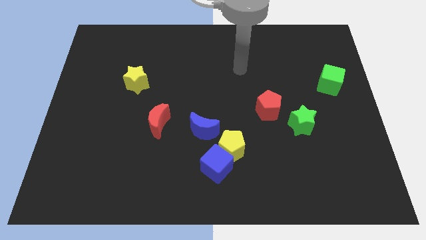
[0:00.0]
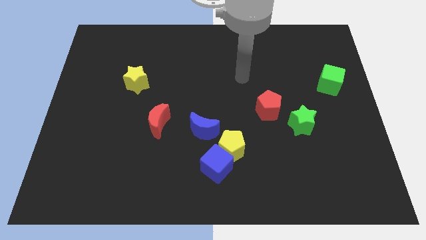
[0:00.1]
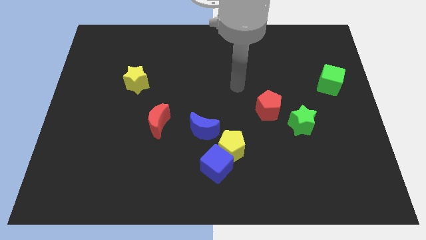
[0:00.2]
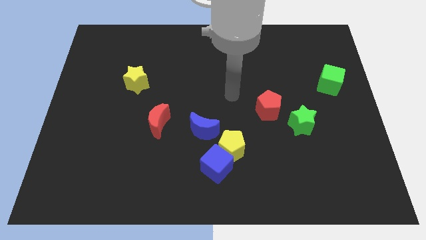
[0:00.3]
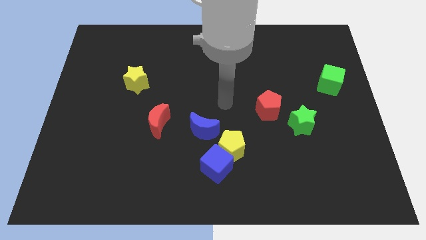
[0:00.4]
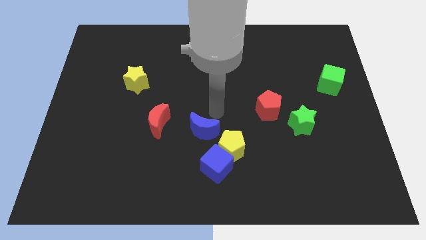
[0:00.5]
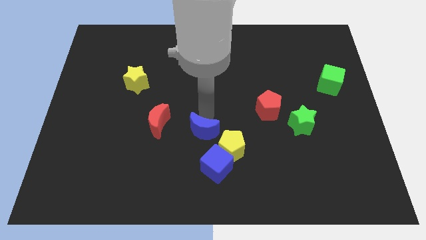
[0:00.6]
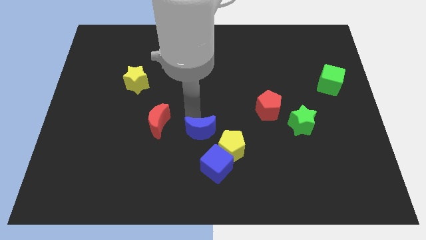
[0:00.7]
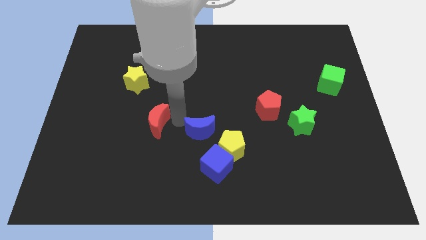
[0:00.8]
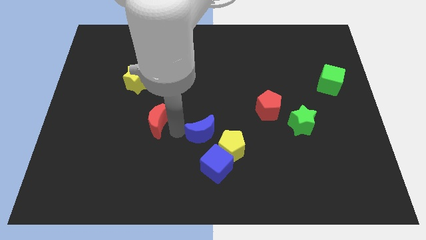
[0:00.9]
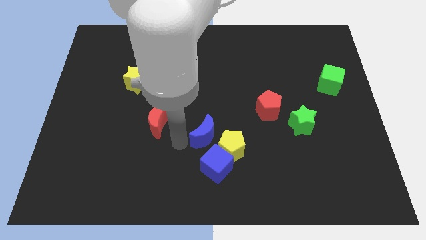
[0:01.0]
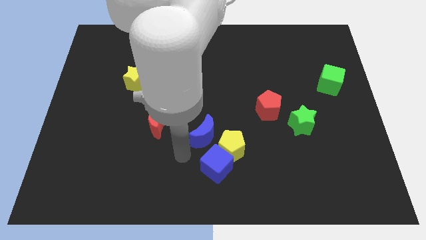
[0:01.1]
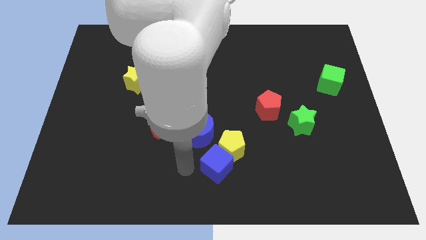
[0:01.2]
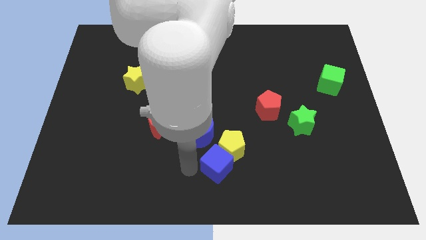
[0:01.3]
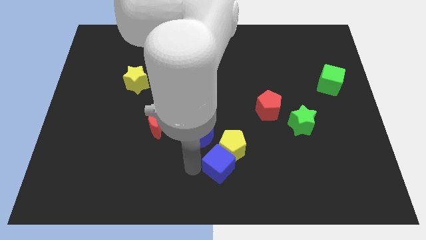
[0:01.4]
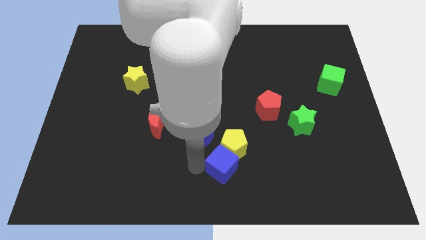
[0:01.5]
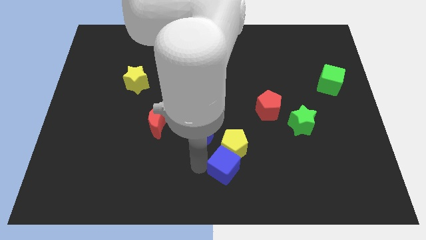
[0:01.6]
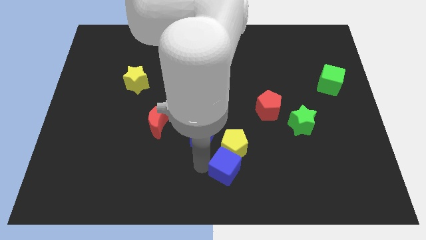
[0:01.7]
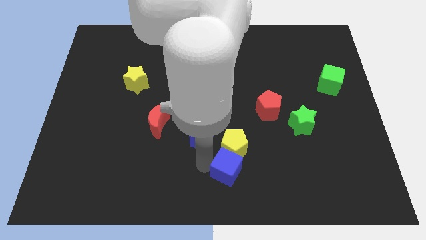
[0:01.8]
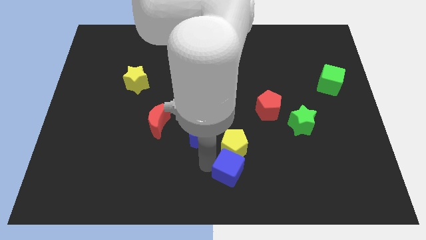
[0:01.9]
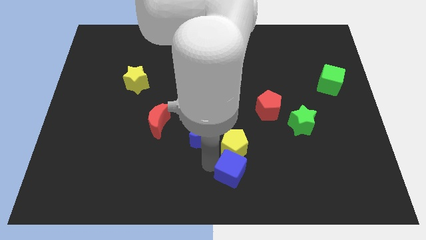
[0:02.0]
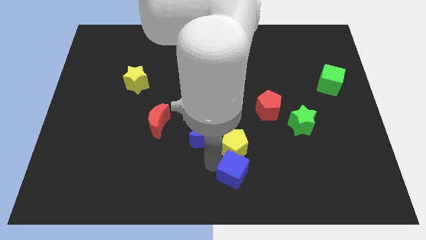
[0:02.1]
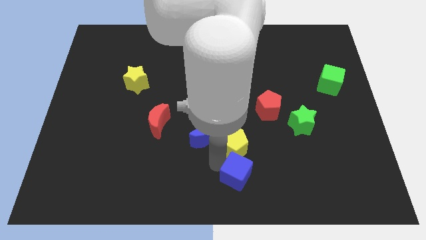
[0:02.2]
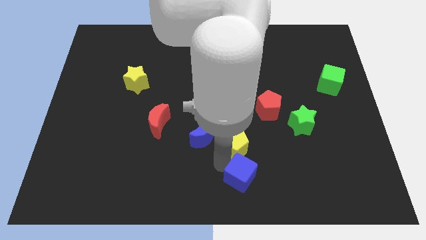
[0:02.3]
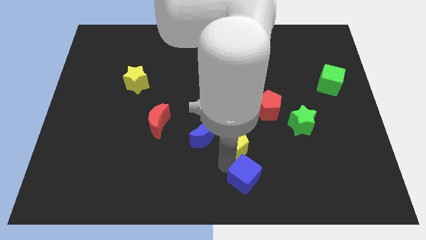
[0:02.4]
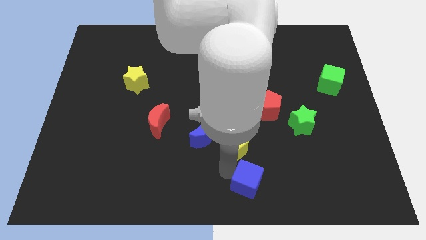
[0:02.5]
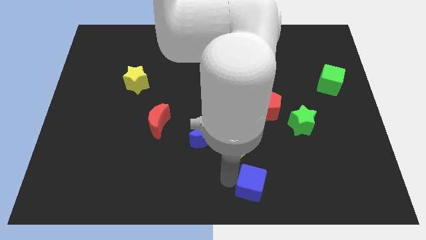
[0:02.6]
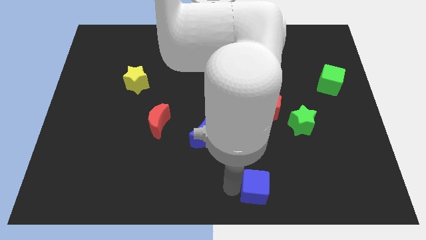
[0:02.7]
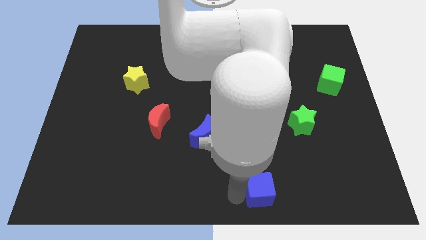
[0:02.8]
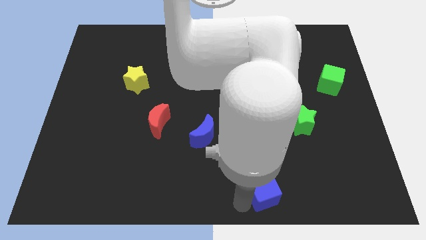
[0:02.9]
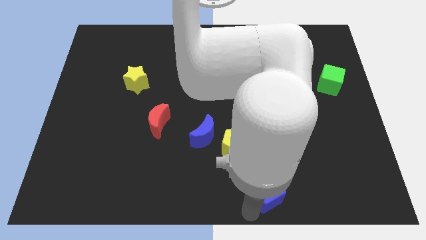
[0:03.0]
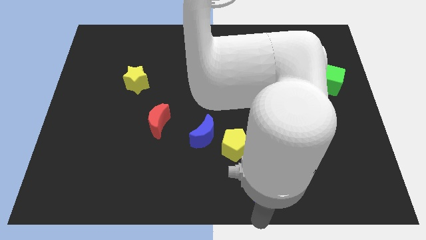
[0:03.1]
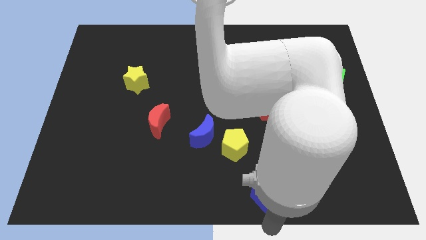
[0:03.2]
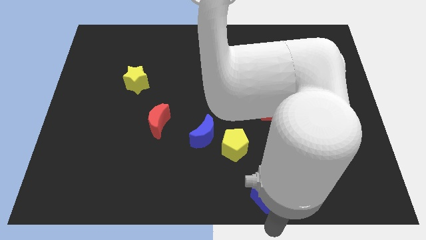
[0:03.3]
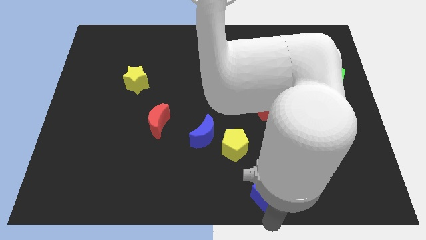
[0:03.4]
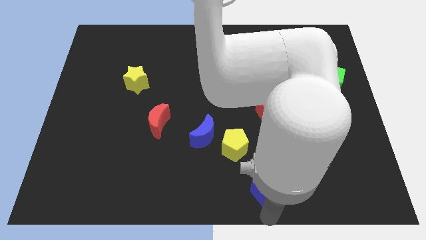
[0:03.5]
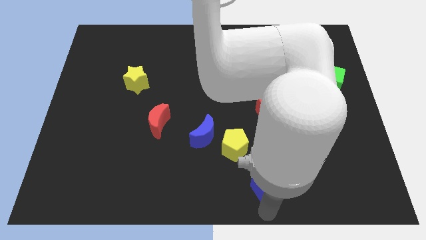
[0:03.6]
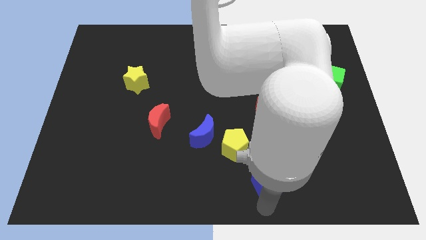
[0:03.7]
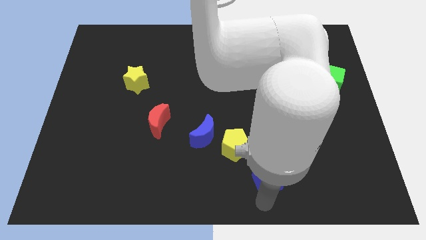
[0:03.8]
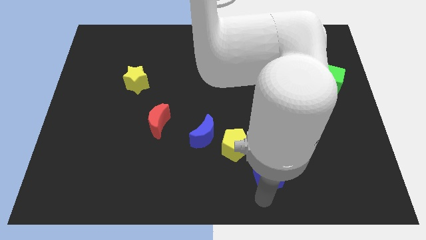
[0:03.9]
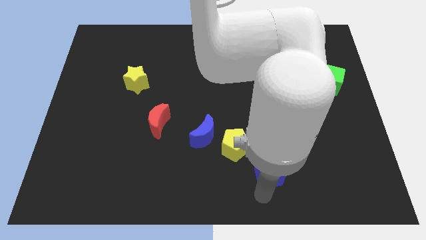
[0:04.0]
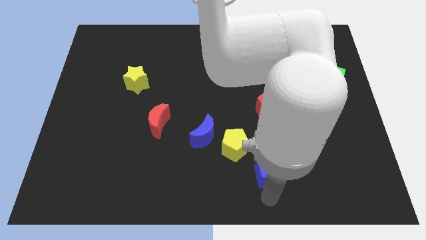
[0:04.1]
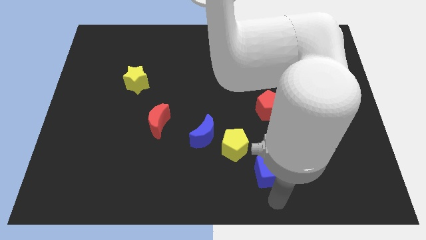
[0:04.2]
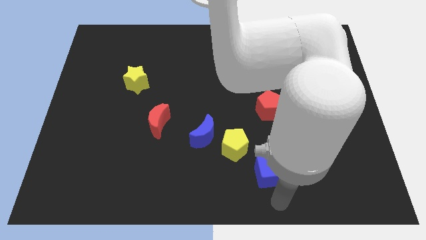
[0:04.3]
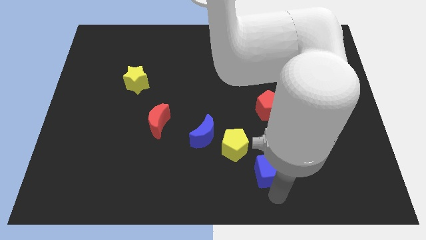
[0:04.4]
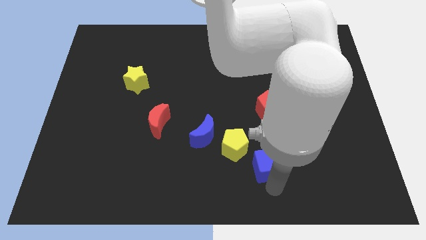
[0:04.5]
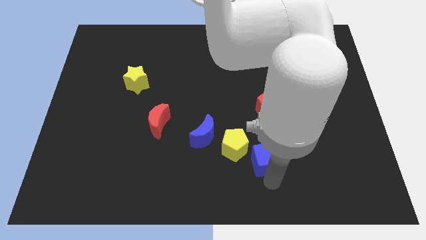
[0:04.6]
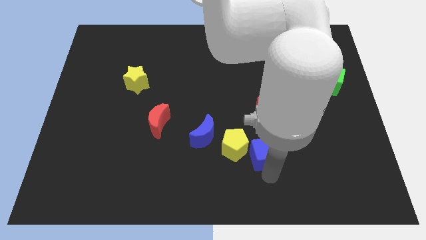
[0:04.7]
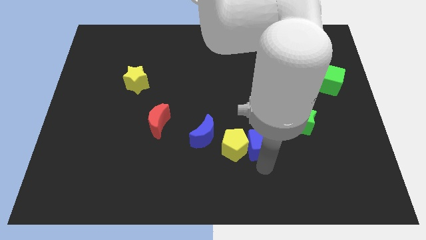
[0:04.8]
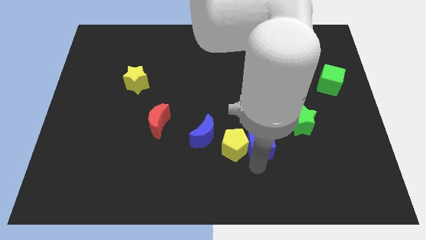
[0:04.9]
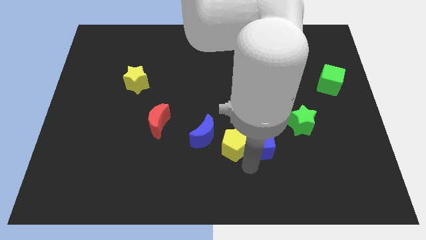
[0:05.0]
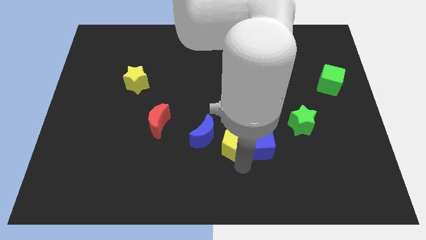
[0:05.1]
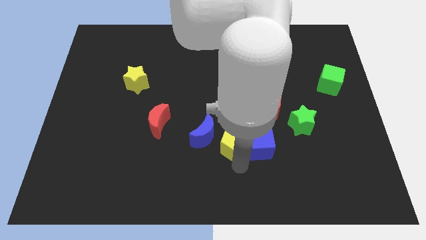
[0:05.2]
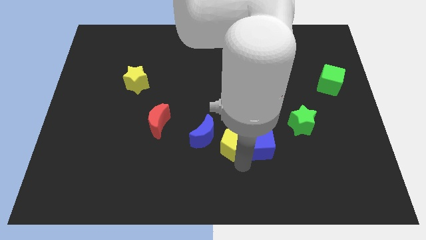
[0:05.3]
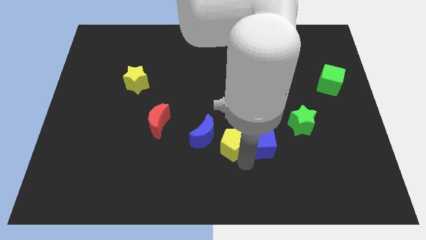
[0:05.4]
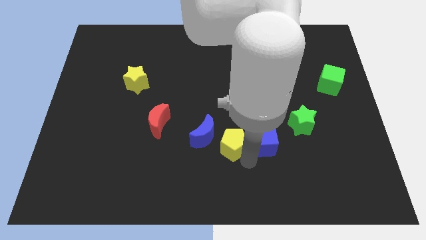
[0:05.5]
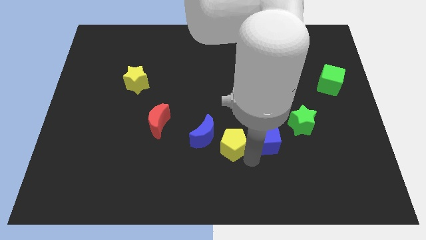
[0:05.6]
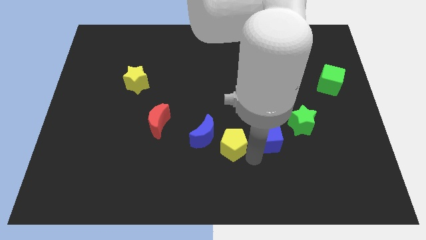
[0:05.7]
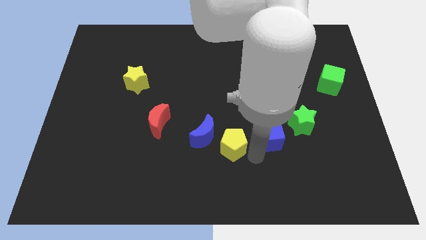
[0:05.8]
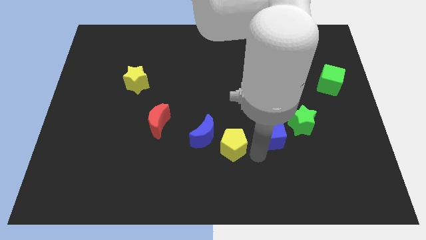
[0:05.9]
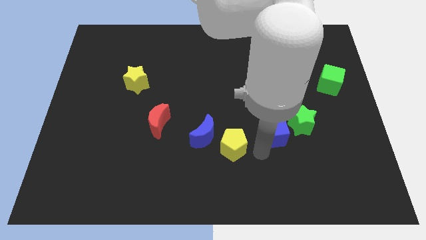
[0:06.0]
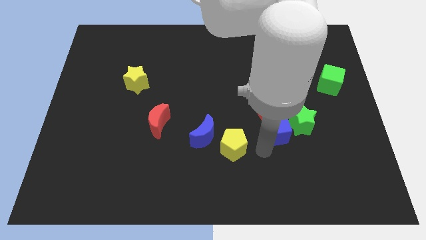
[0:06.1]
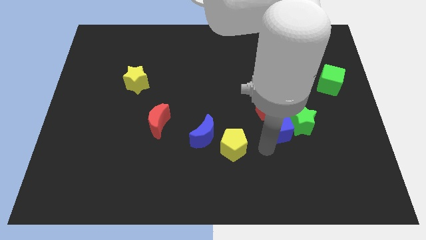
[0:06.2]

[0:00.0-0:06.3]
put the blue cube close to the green star
